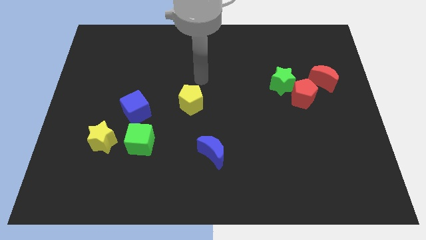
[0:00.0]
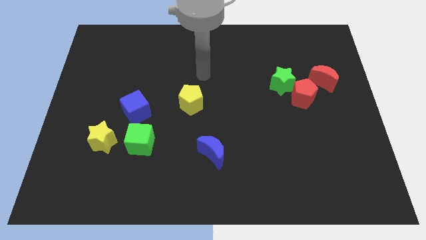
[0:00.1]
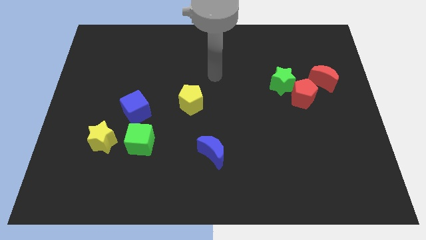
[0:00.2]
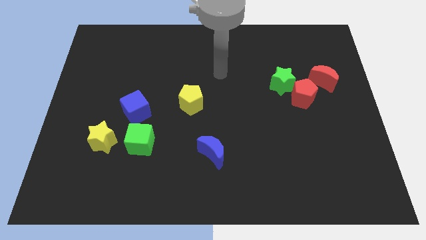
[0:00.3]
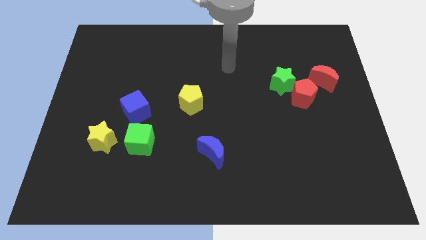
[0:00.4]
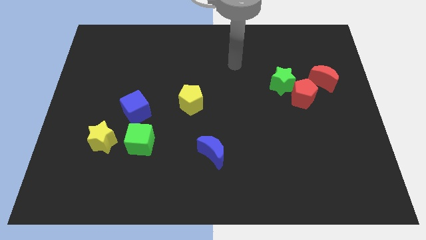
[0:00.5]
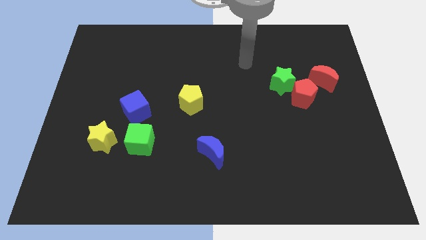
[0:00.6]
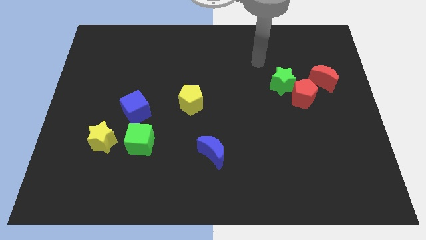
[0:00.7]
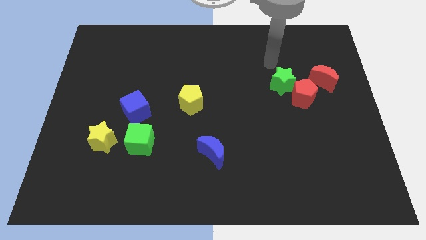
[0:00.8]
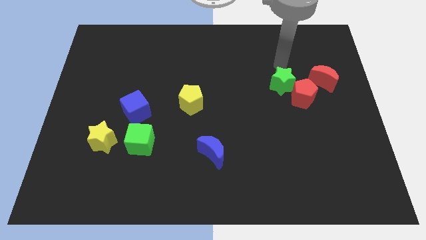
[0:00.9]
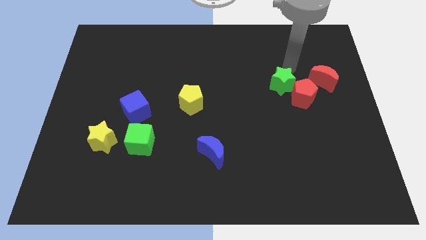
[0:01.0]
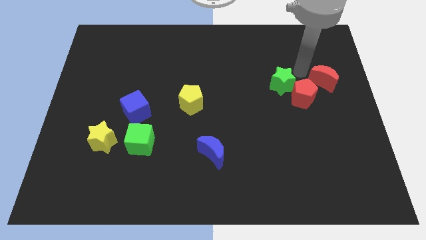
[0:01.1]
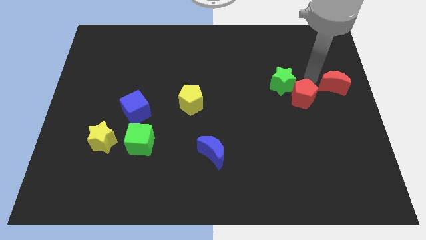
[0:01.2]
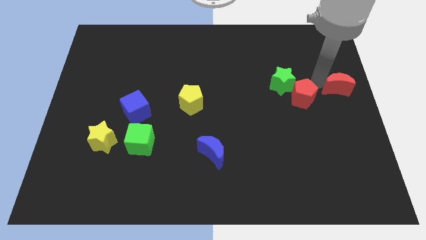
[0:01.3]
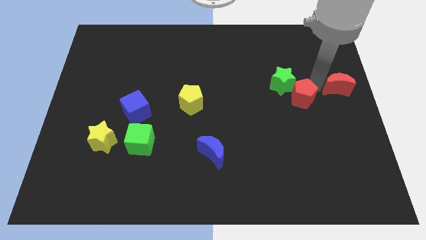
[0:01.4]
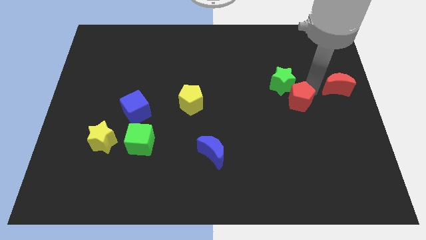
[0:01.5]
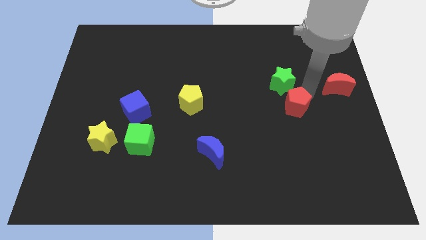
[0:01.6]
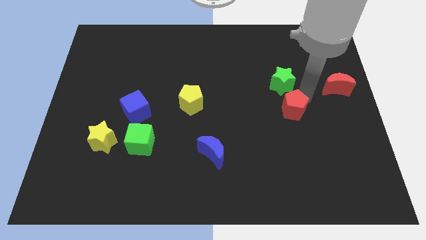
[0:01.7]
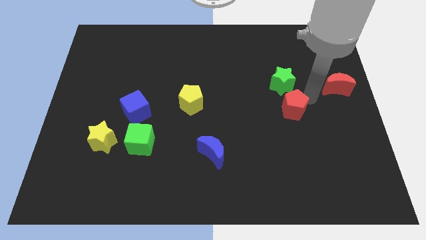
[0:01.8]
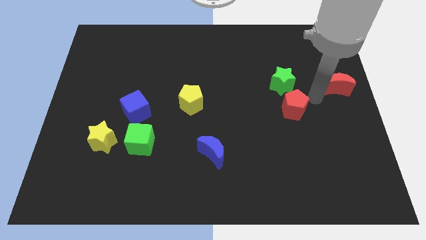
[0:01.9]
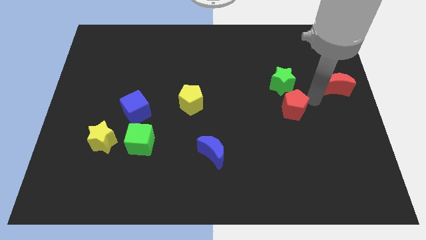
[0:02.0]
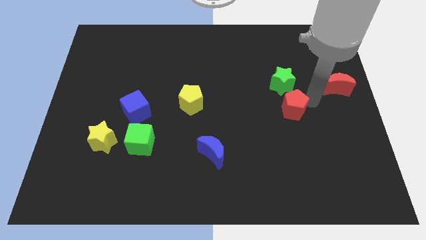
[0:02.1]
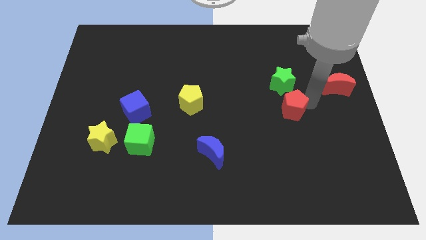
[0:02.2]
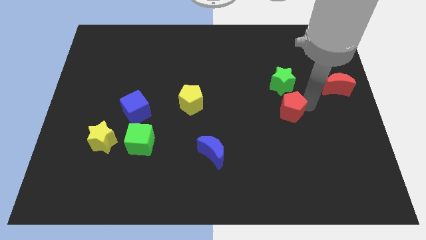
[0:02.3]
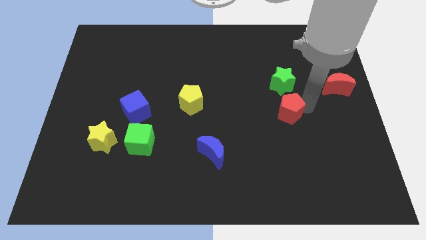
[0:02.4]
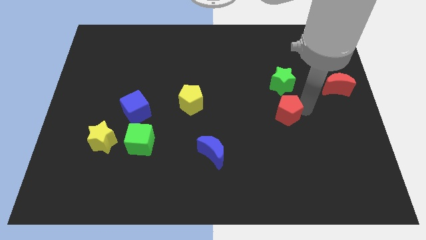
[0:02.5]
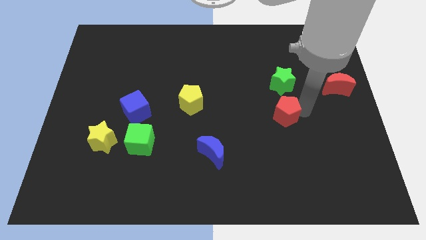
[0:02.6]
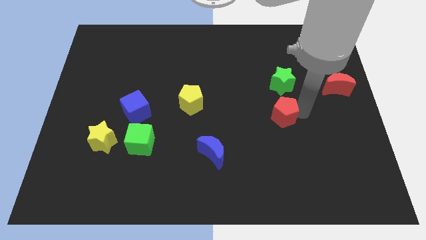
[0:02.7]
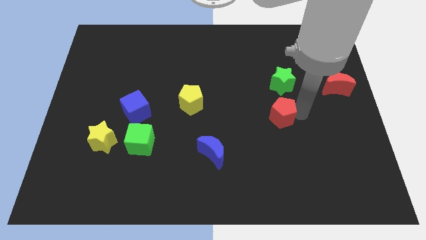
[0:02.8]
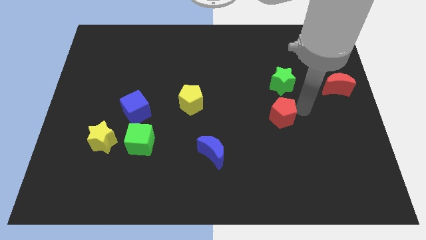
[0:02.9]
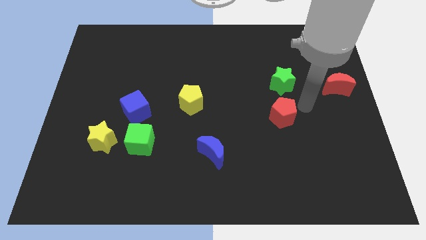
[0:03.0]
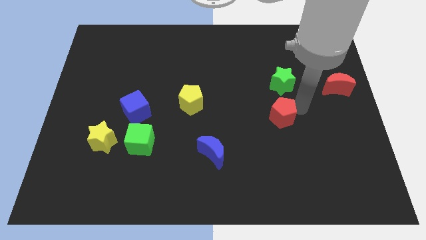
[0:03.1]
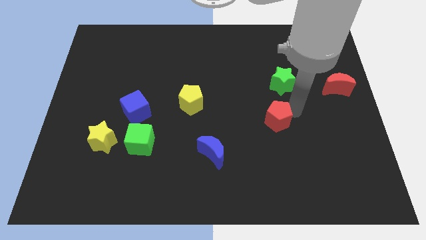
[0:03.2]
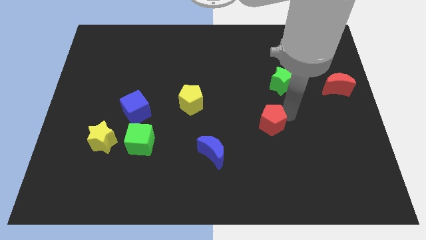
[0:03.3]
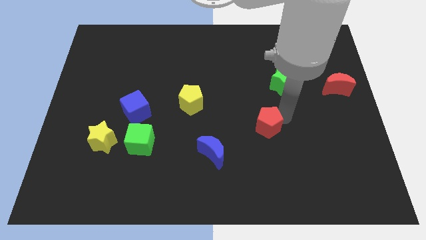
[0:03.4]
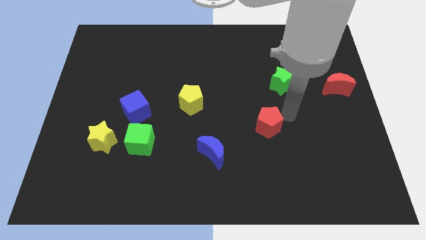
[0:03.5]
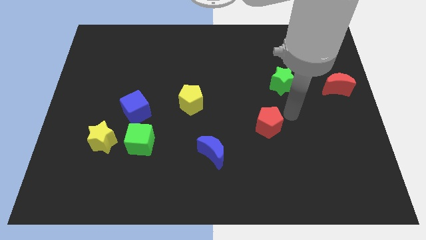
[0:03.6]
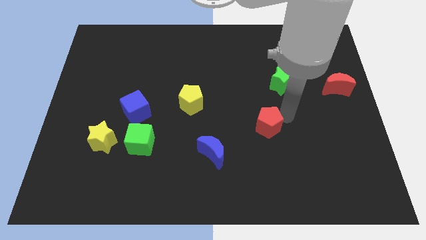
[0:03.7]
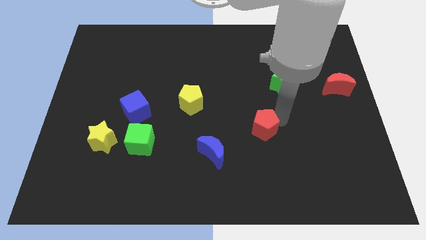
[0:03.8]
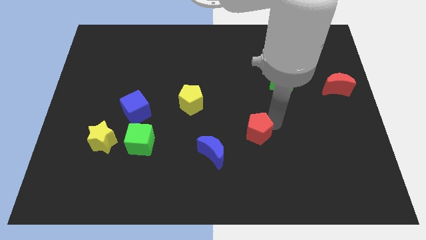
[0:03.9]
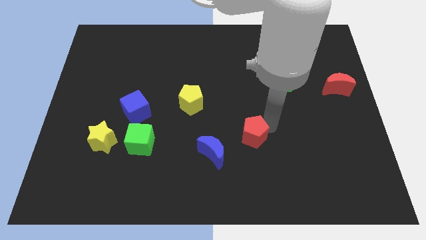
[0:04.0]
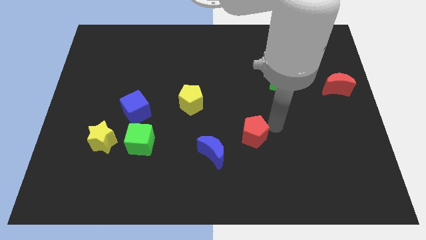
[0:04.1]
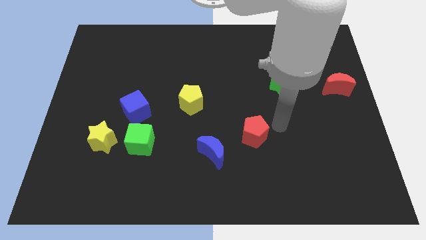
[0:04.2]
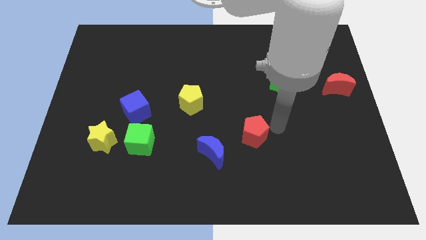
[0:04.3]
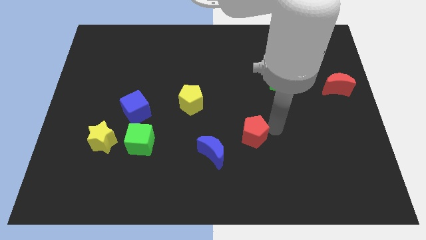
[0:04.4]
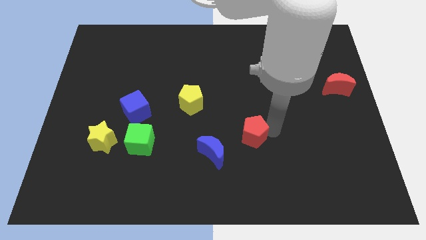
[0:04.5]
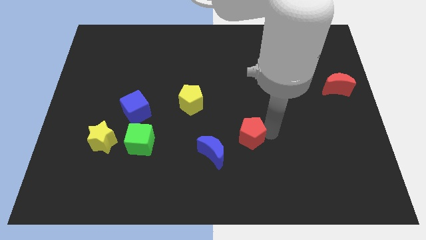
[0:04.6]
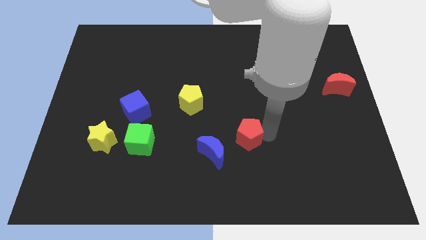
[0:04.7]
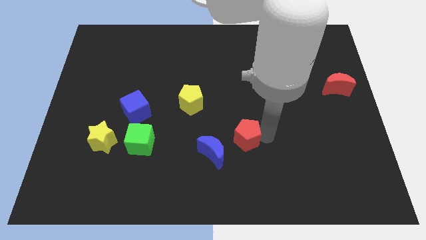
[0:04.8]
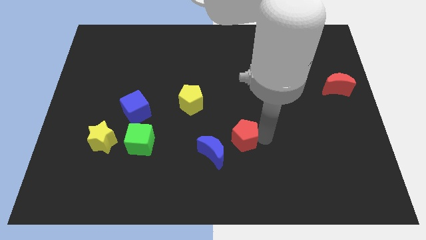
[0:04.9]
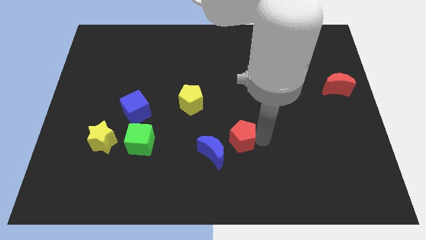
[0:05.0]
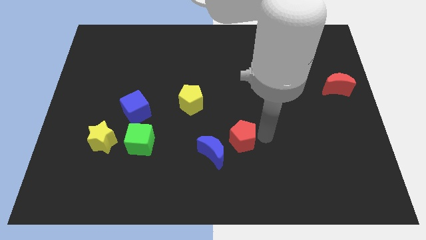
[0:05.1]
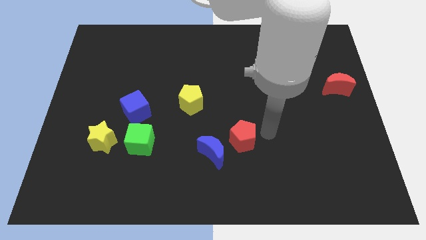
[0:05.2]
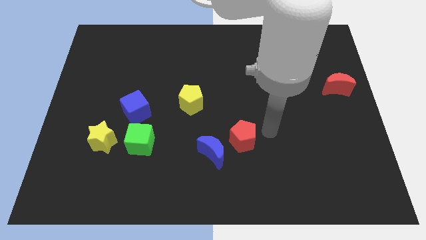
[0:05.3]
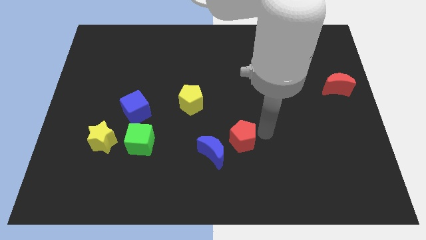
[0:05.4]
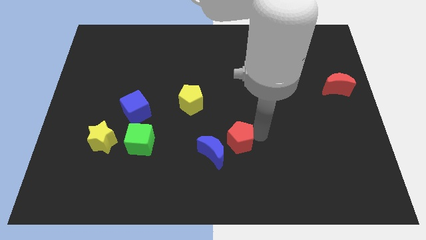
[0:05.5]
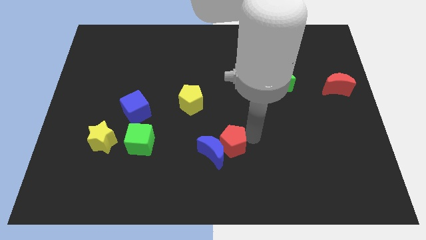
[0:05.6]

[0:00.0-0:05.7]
put the red pentagon close to the blue moon
